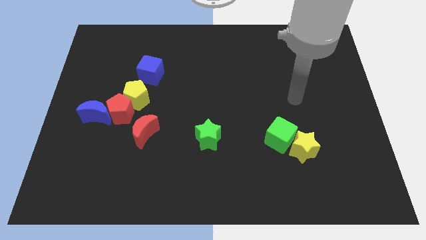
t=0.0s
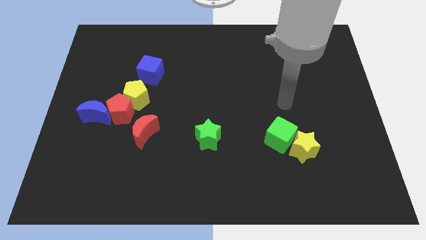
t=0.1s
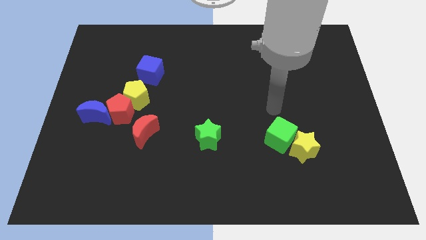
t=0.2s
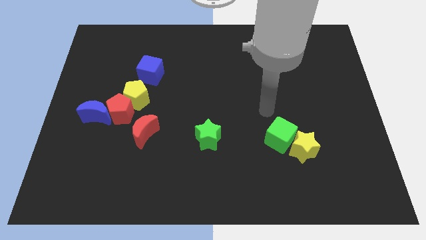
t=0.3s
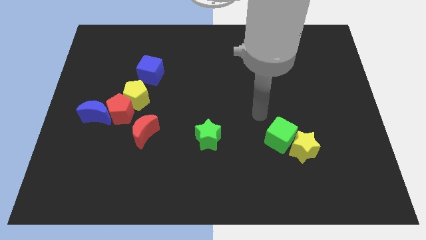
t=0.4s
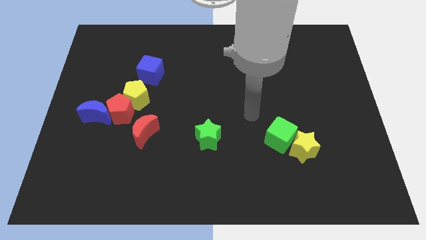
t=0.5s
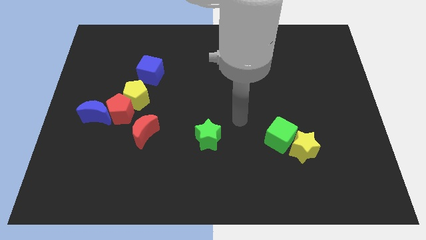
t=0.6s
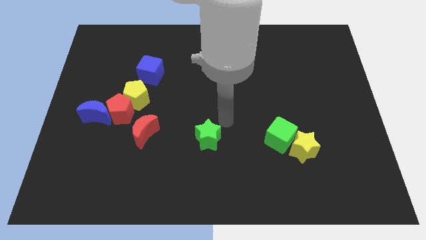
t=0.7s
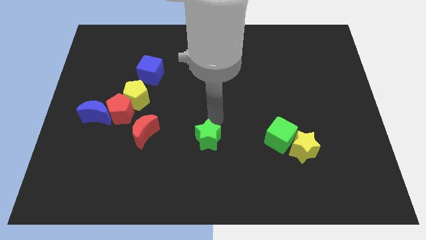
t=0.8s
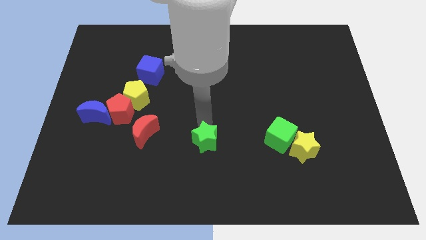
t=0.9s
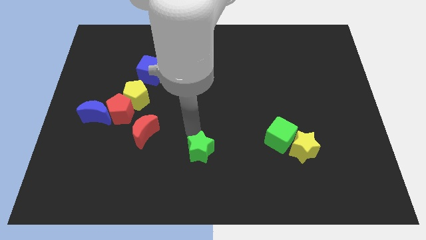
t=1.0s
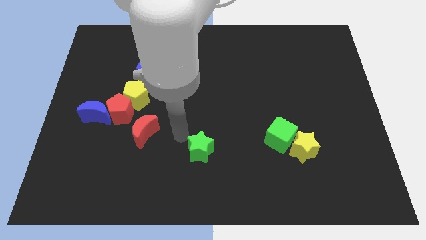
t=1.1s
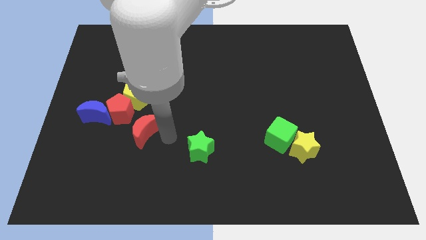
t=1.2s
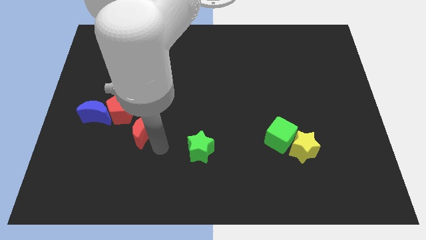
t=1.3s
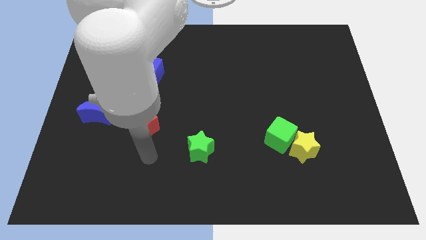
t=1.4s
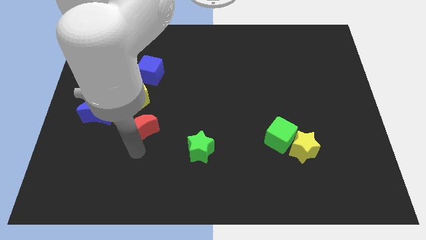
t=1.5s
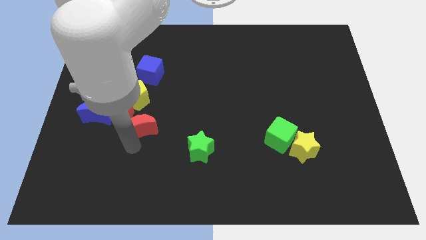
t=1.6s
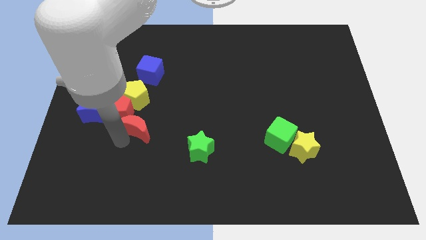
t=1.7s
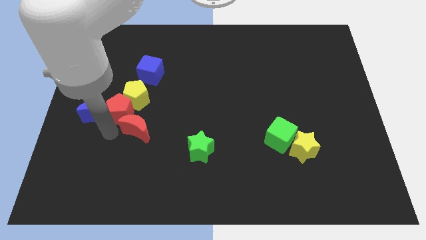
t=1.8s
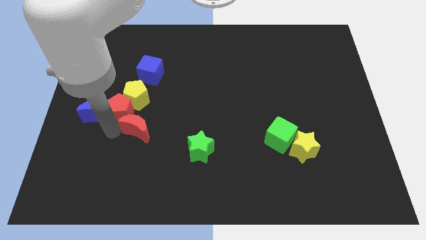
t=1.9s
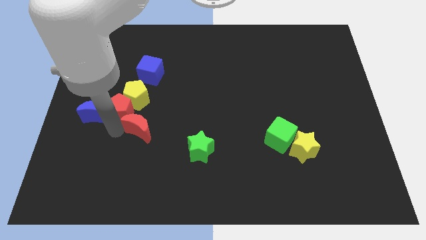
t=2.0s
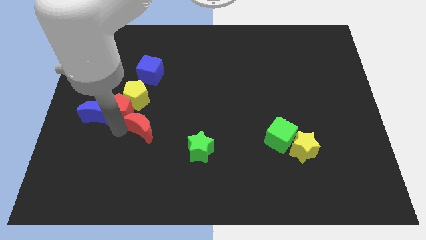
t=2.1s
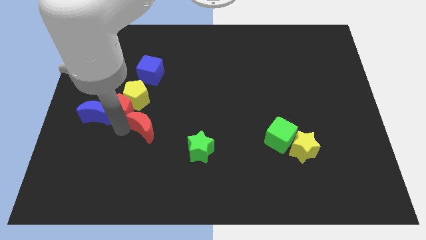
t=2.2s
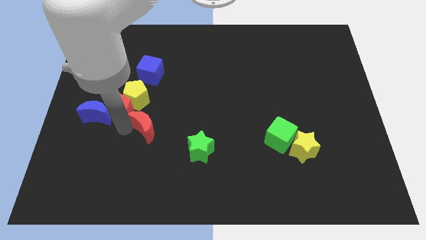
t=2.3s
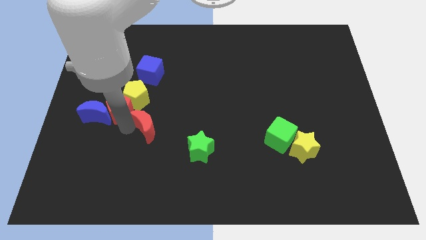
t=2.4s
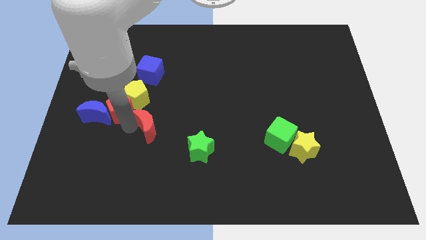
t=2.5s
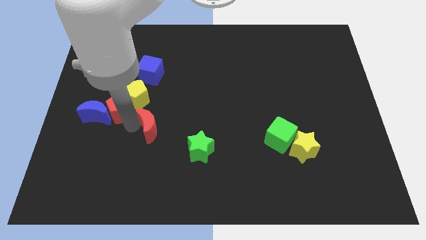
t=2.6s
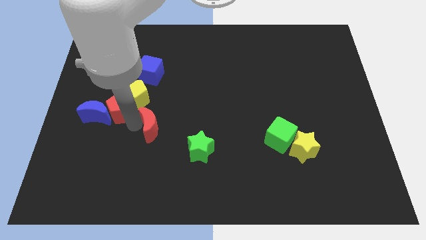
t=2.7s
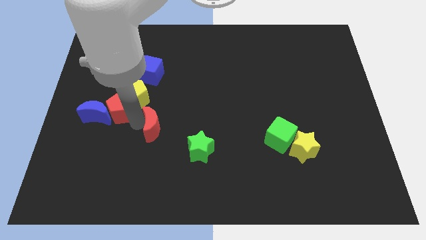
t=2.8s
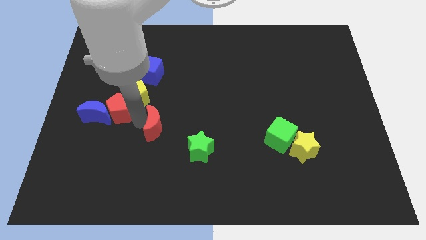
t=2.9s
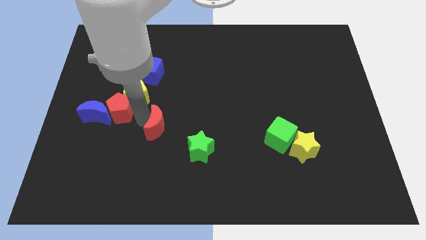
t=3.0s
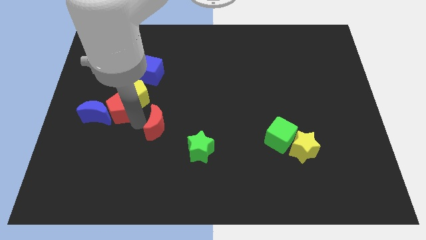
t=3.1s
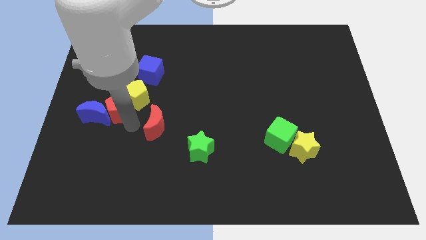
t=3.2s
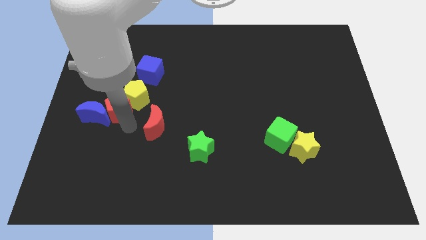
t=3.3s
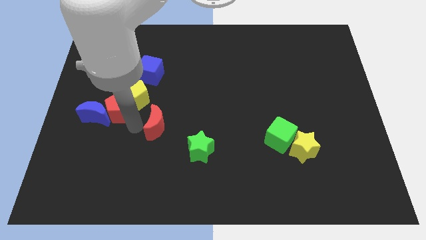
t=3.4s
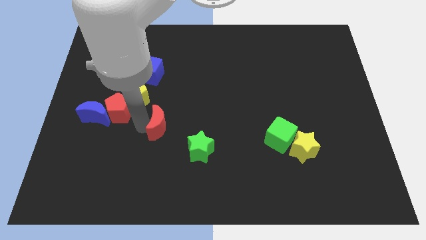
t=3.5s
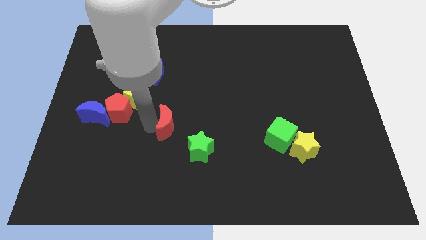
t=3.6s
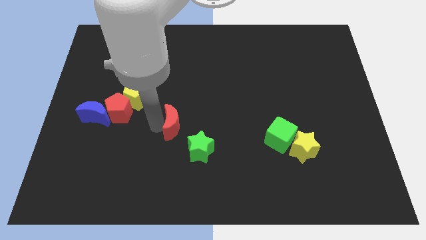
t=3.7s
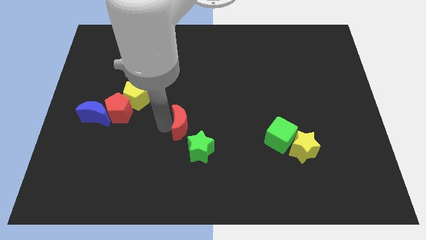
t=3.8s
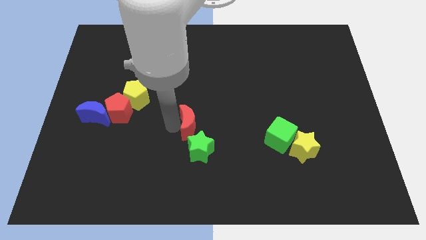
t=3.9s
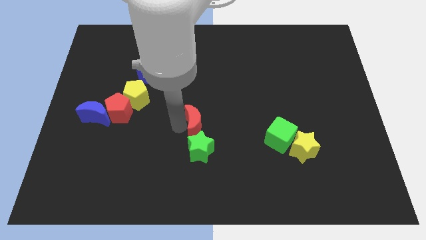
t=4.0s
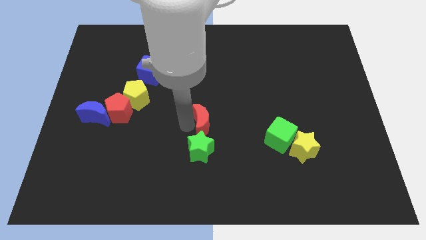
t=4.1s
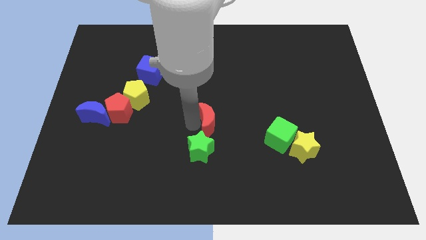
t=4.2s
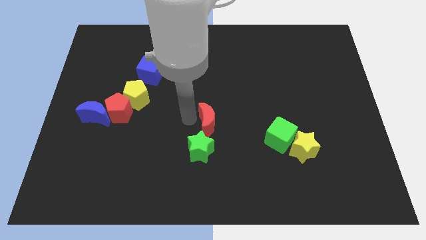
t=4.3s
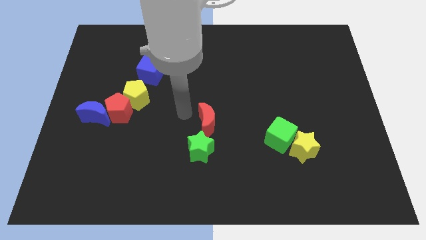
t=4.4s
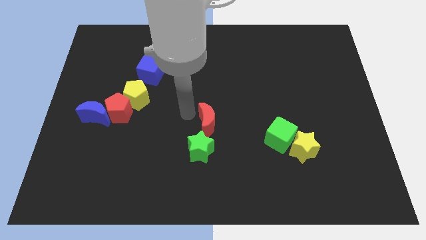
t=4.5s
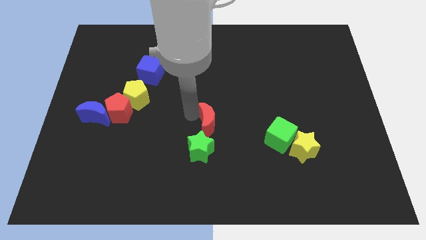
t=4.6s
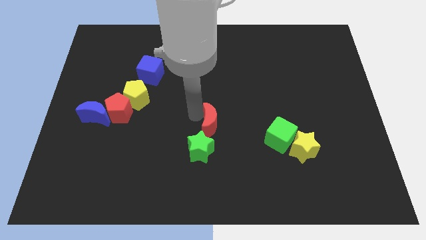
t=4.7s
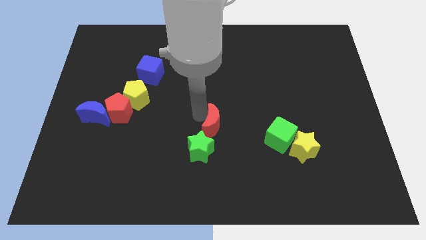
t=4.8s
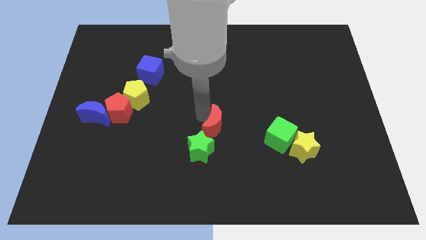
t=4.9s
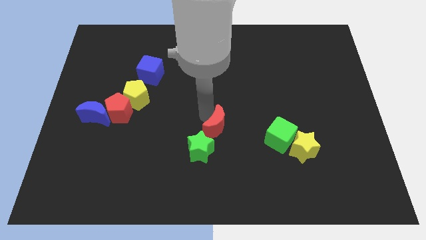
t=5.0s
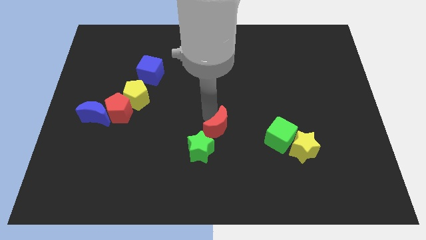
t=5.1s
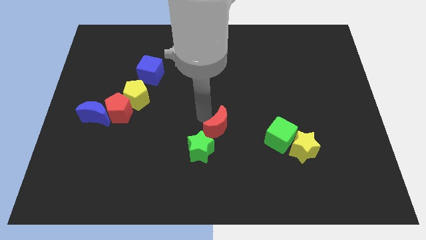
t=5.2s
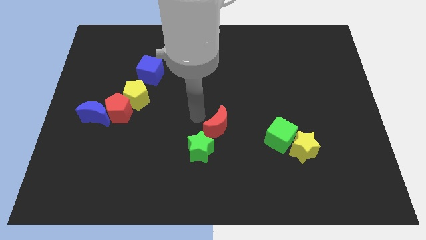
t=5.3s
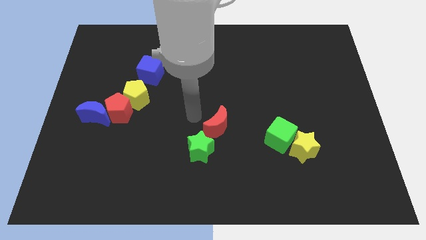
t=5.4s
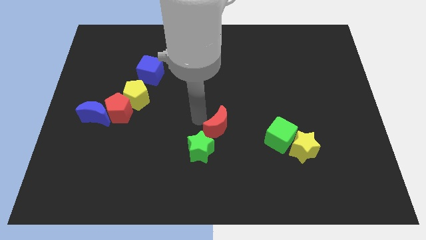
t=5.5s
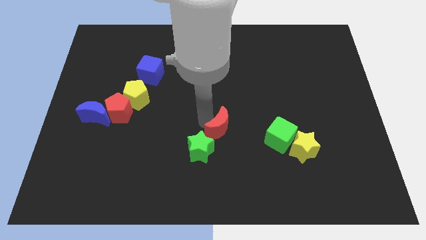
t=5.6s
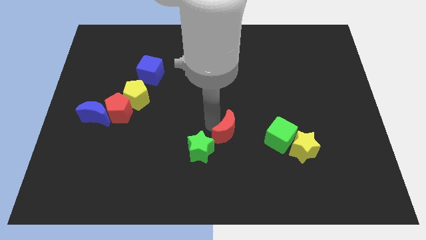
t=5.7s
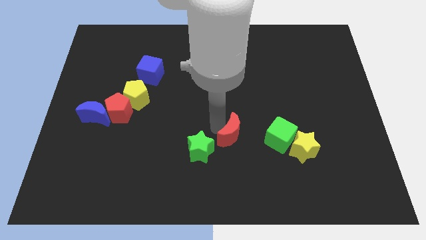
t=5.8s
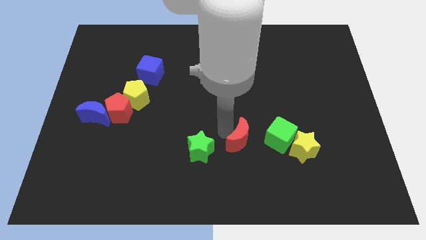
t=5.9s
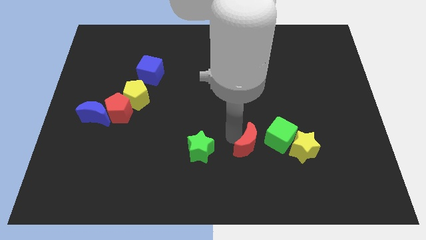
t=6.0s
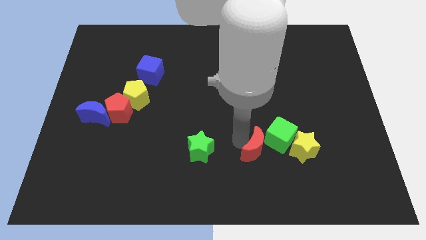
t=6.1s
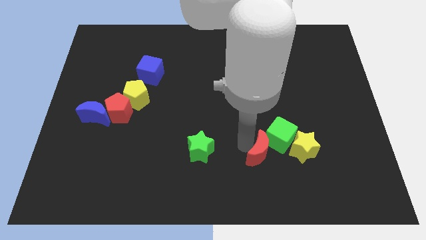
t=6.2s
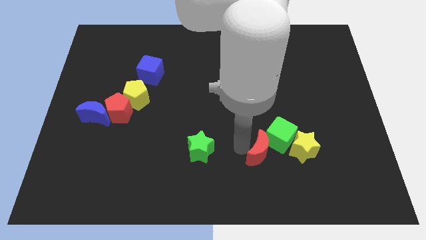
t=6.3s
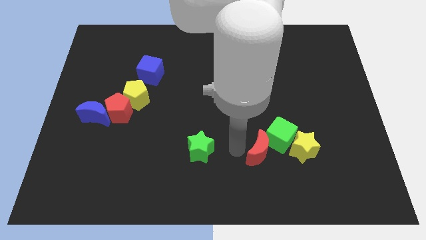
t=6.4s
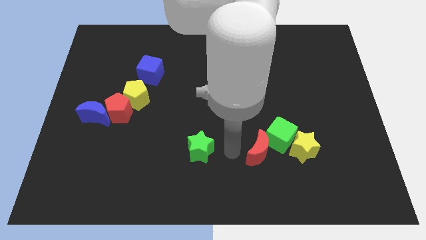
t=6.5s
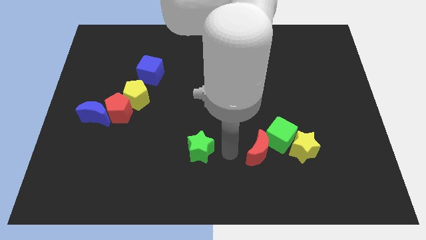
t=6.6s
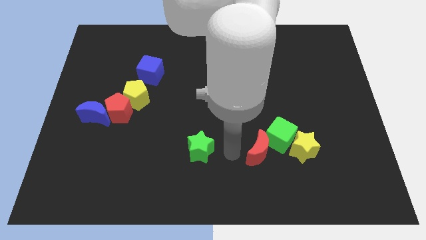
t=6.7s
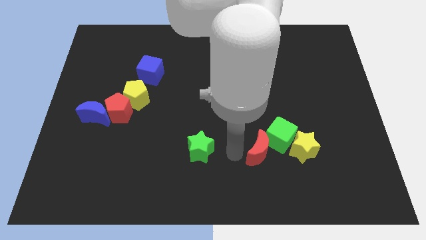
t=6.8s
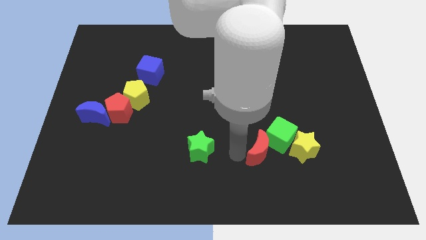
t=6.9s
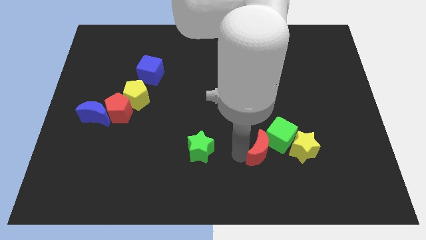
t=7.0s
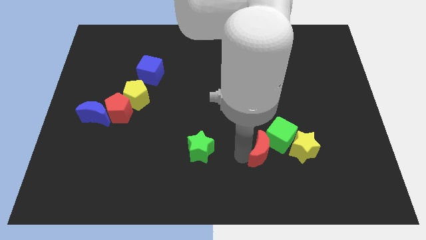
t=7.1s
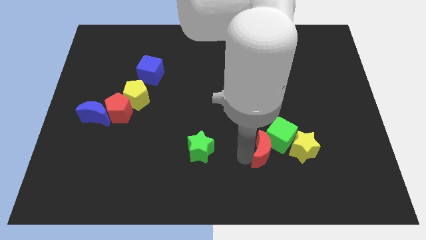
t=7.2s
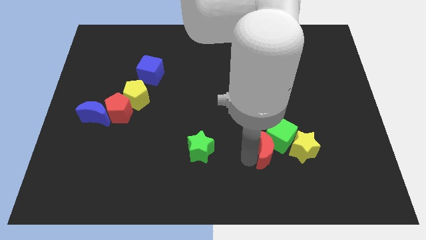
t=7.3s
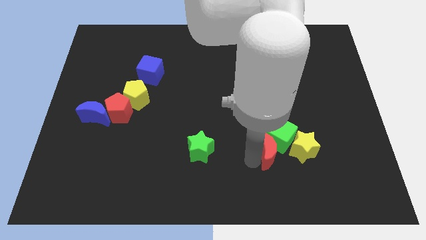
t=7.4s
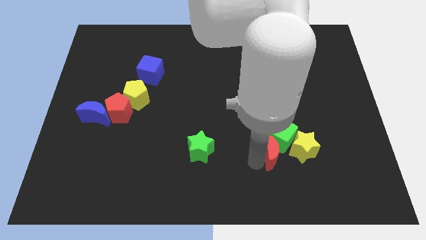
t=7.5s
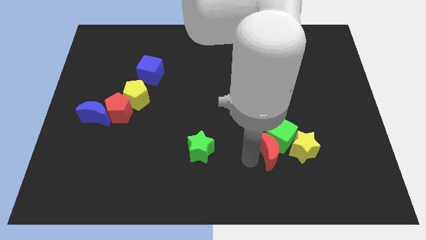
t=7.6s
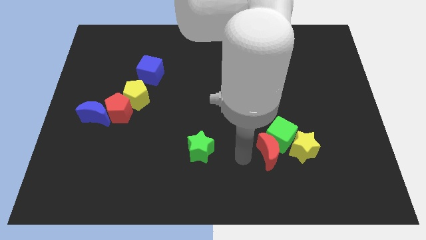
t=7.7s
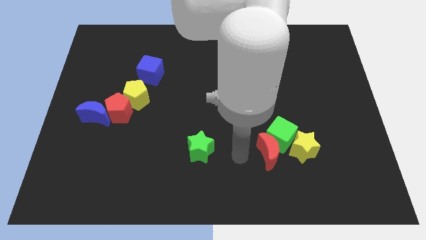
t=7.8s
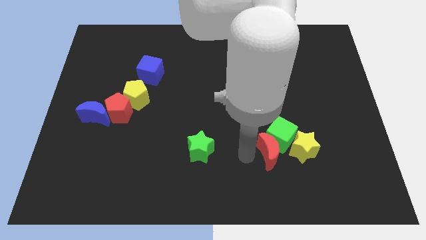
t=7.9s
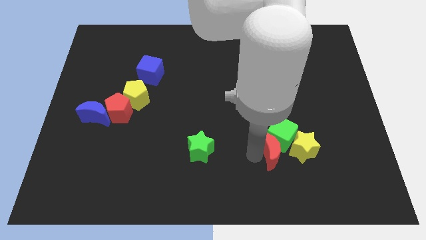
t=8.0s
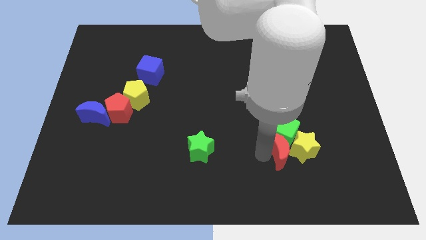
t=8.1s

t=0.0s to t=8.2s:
slide the red moon towards the yellow star
